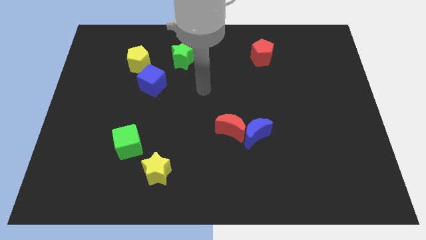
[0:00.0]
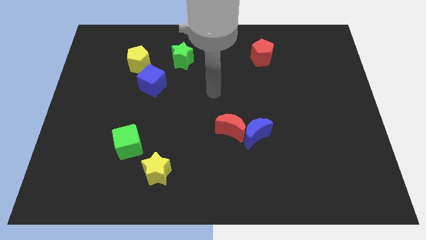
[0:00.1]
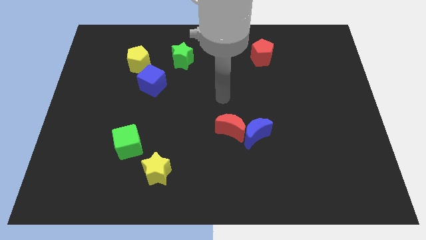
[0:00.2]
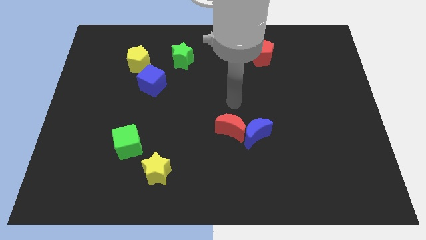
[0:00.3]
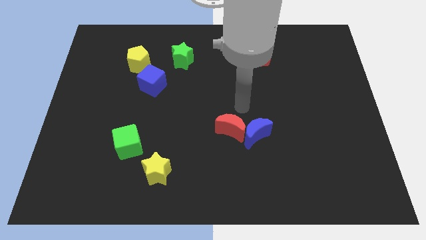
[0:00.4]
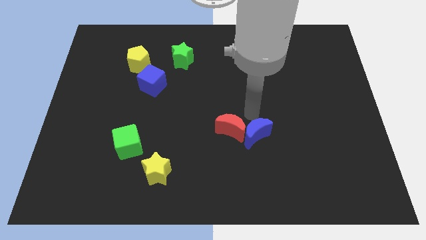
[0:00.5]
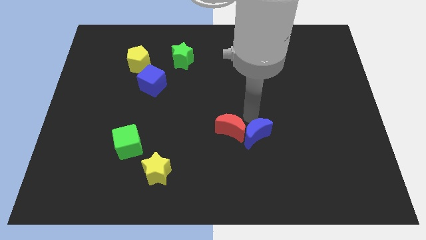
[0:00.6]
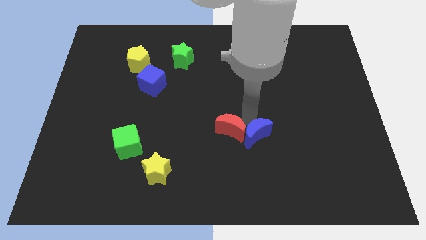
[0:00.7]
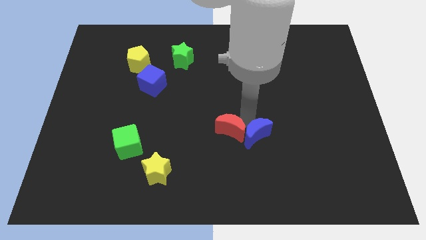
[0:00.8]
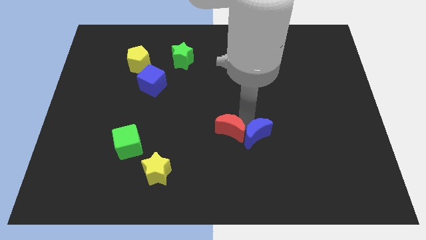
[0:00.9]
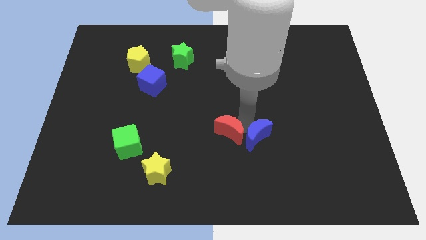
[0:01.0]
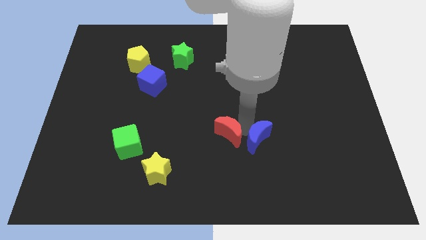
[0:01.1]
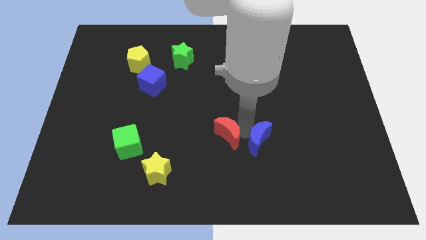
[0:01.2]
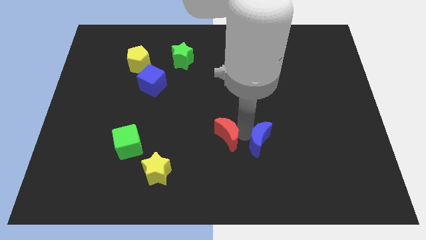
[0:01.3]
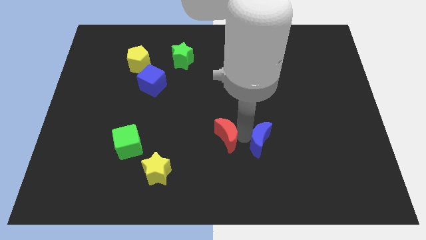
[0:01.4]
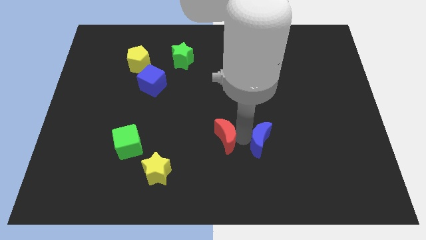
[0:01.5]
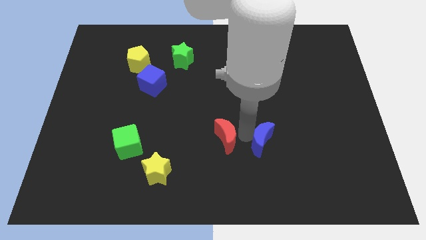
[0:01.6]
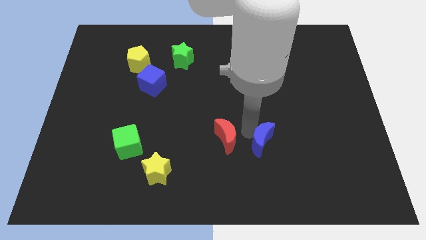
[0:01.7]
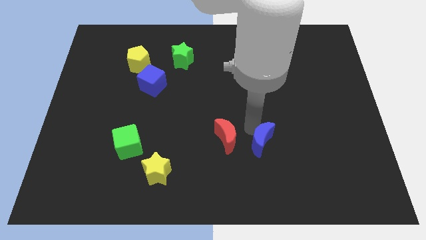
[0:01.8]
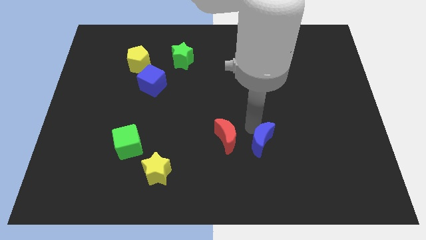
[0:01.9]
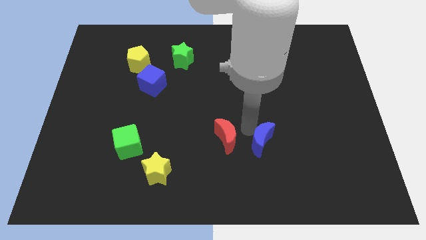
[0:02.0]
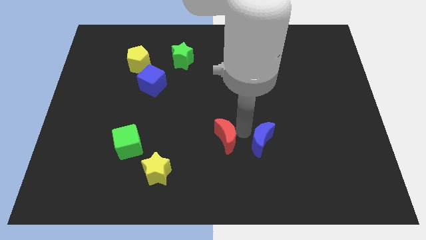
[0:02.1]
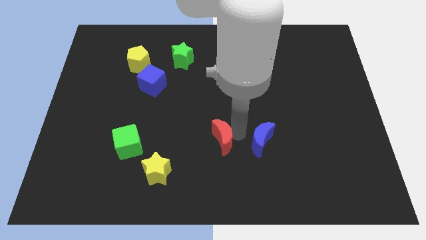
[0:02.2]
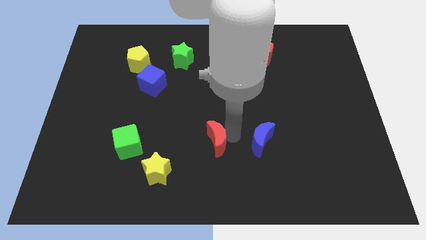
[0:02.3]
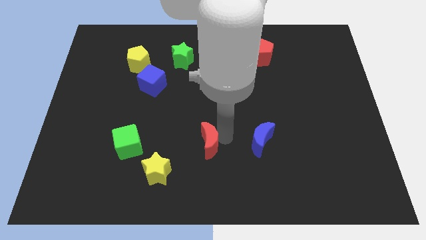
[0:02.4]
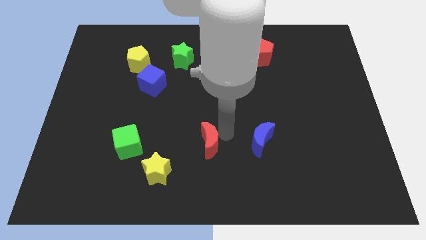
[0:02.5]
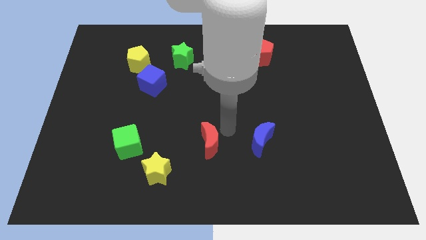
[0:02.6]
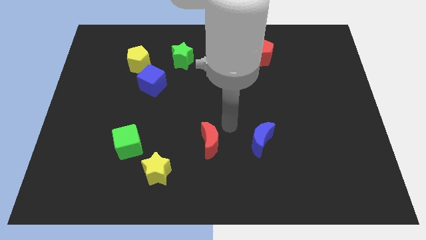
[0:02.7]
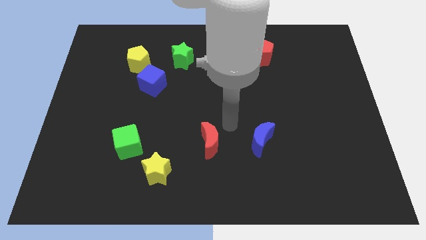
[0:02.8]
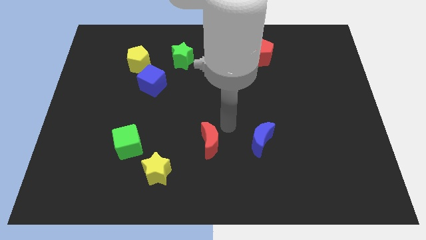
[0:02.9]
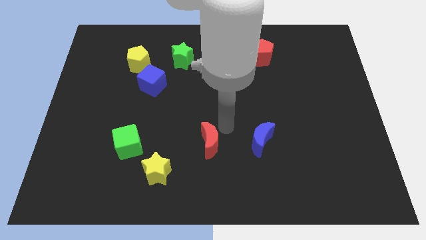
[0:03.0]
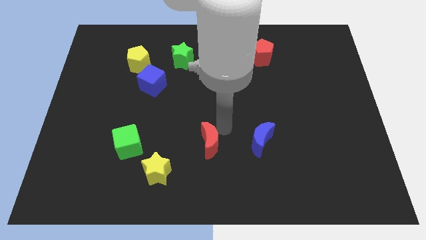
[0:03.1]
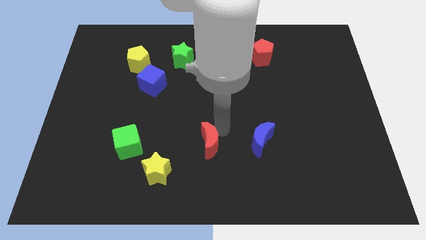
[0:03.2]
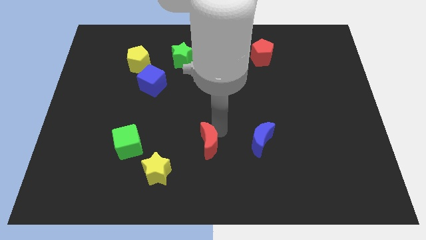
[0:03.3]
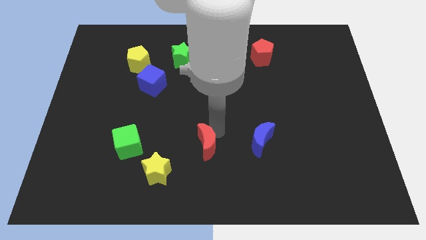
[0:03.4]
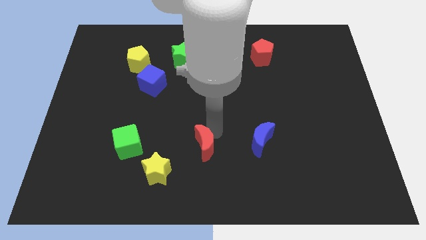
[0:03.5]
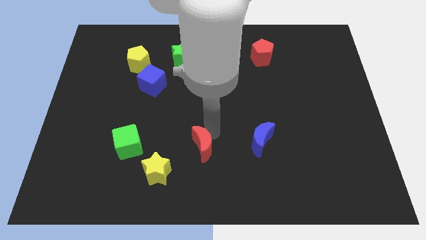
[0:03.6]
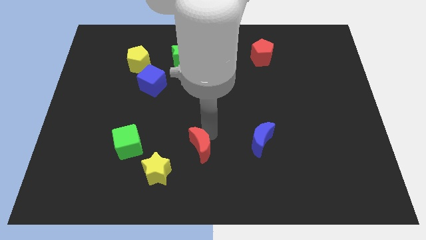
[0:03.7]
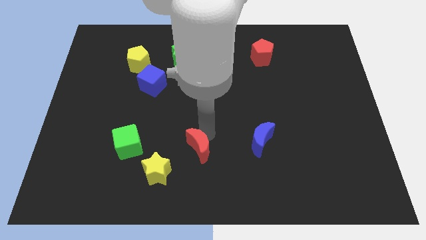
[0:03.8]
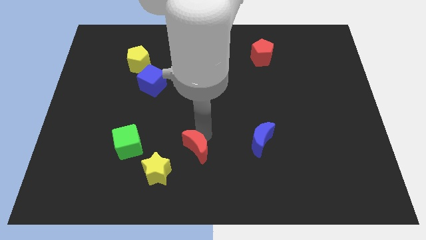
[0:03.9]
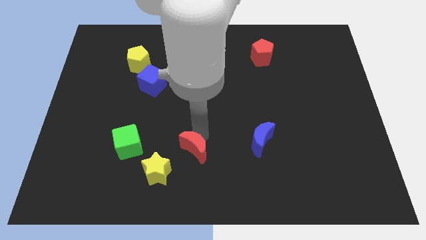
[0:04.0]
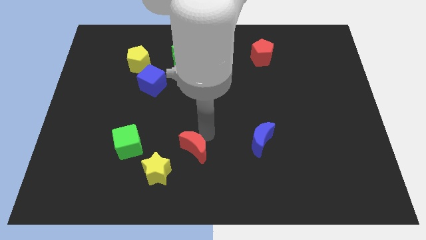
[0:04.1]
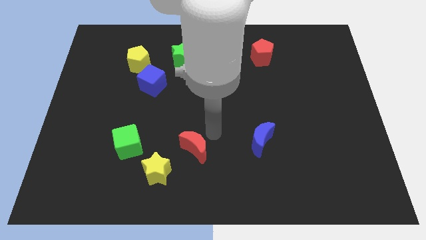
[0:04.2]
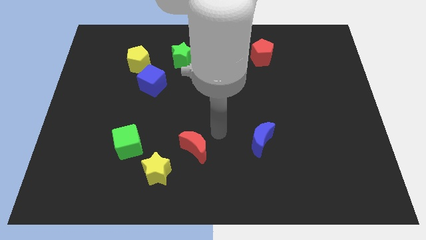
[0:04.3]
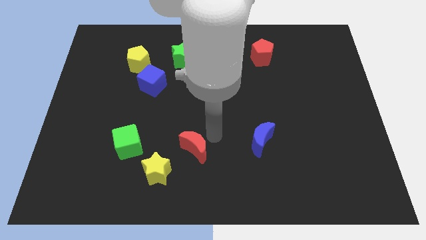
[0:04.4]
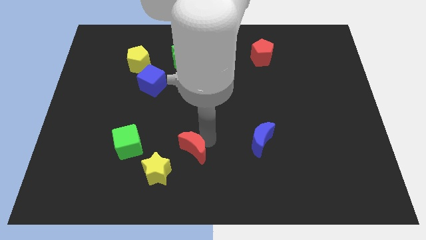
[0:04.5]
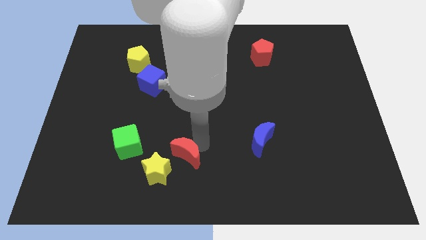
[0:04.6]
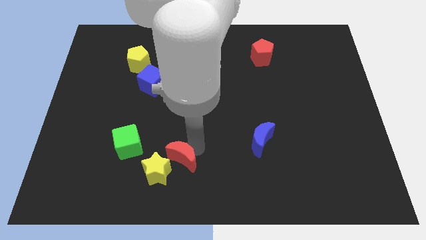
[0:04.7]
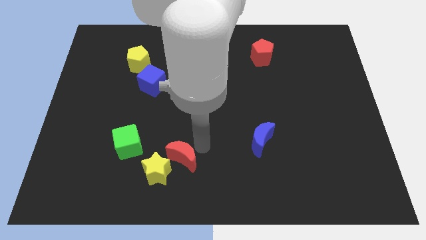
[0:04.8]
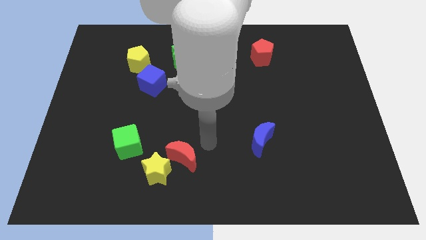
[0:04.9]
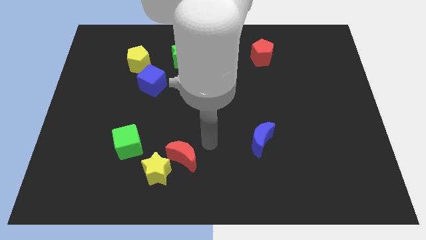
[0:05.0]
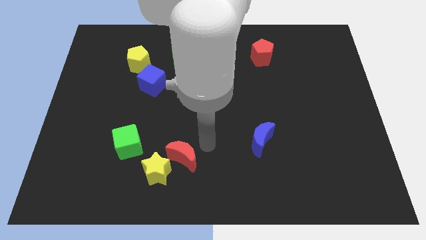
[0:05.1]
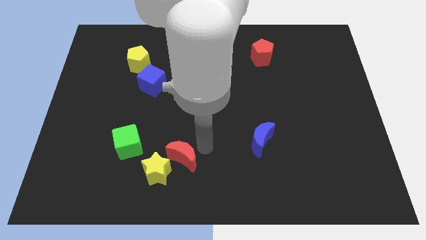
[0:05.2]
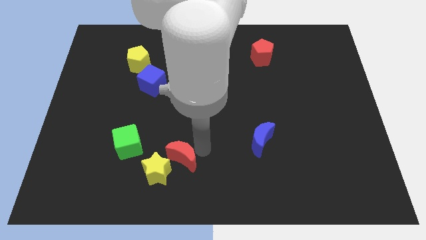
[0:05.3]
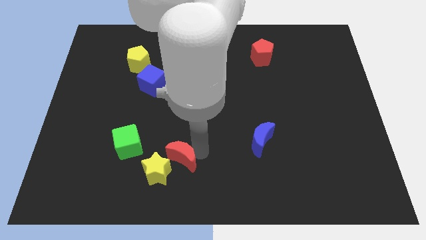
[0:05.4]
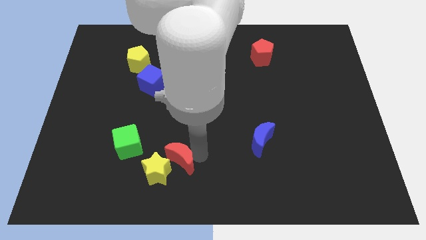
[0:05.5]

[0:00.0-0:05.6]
put the red moon to the yellow star

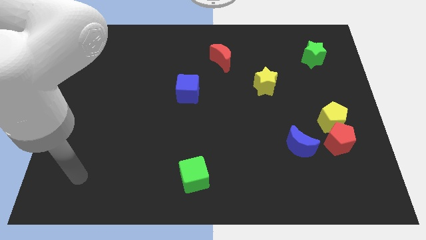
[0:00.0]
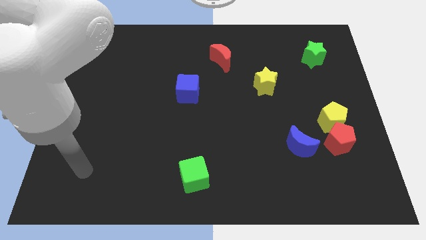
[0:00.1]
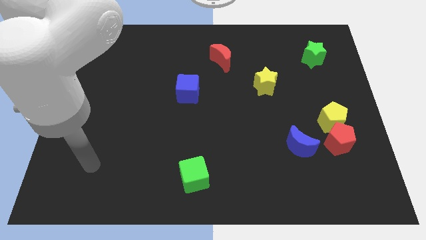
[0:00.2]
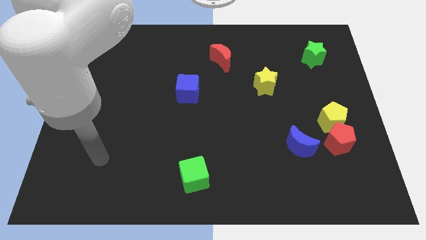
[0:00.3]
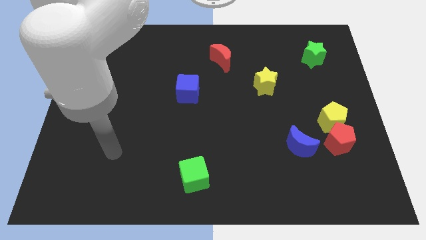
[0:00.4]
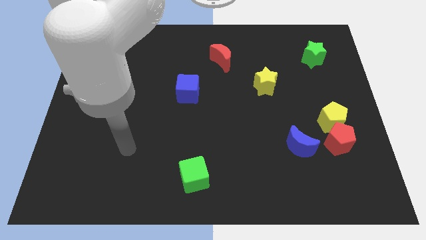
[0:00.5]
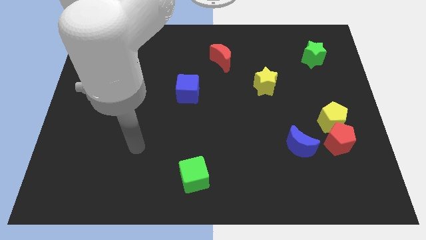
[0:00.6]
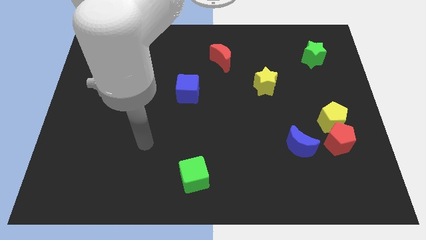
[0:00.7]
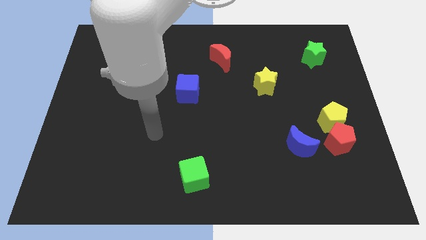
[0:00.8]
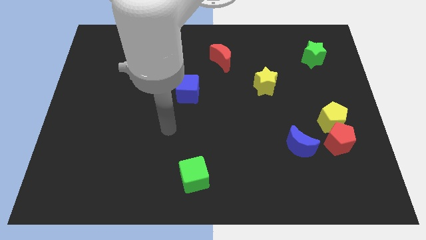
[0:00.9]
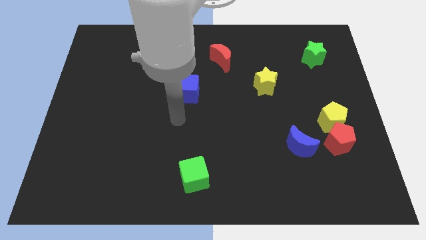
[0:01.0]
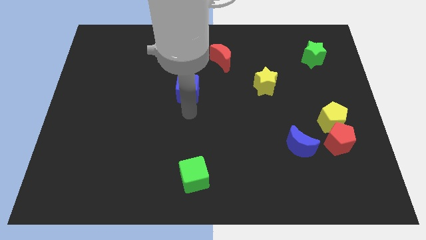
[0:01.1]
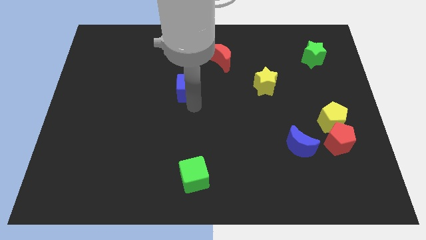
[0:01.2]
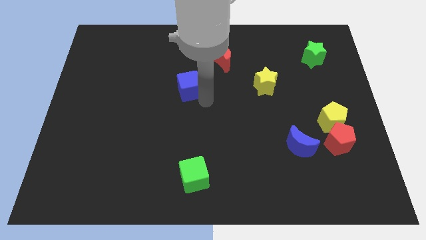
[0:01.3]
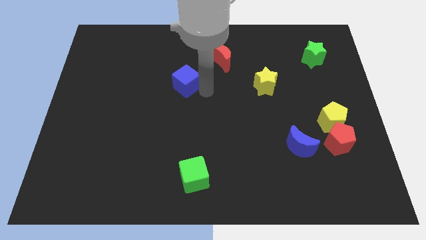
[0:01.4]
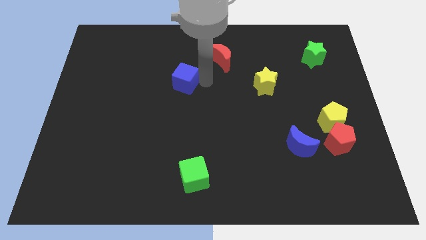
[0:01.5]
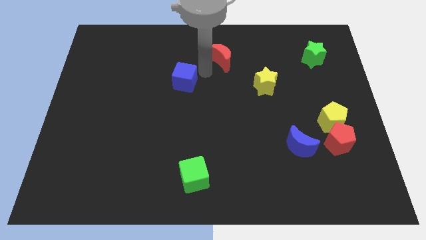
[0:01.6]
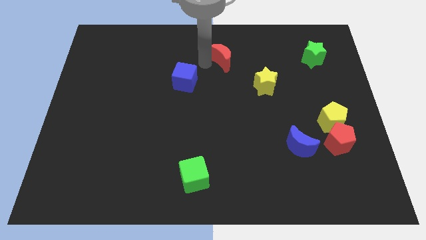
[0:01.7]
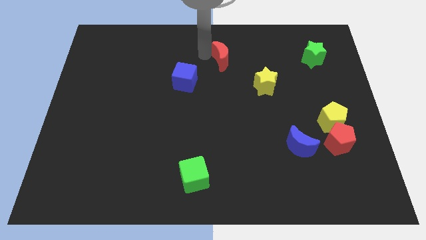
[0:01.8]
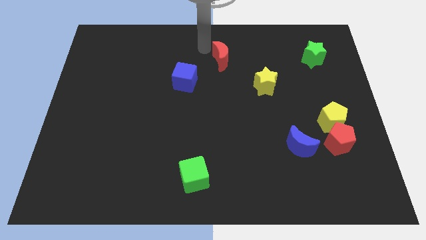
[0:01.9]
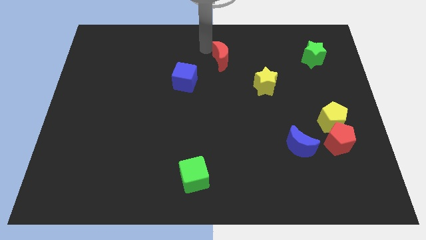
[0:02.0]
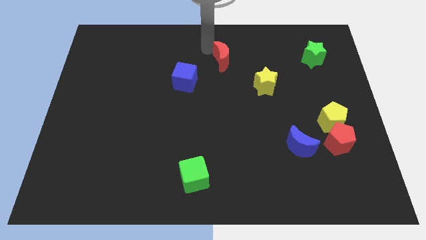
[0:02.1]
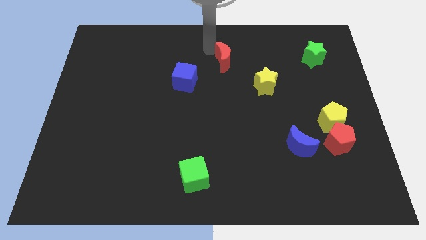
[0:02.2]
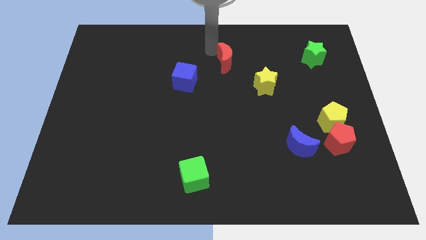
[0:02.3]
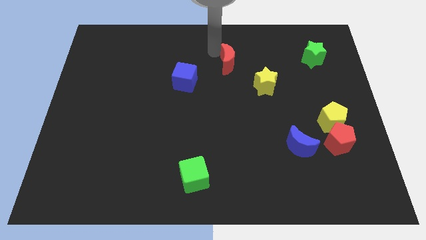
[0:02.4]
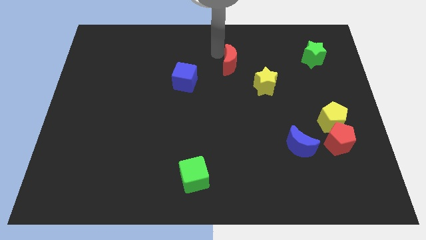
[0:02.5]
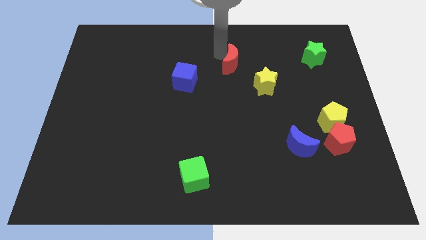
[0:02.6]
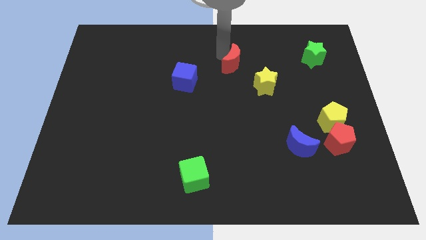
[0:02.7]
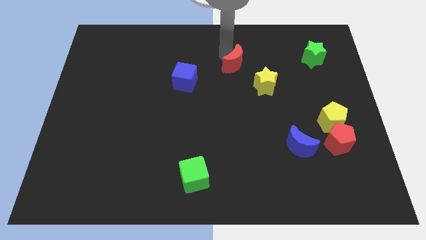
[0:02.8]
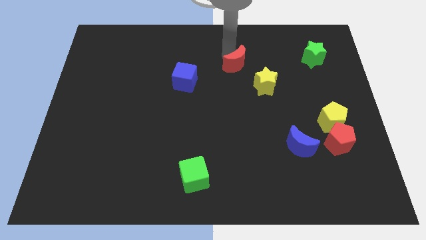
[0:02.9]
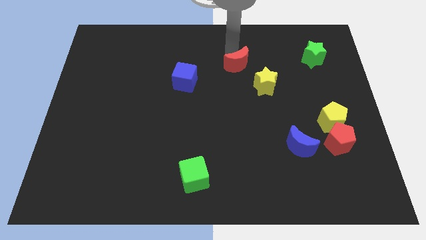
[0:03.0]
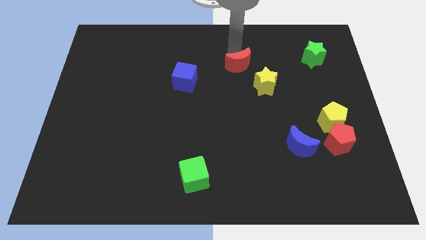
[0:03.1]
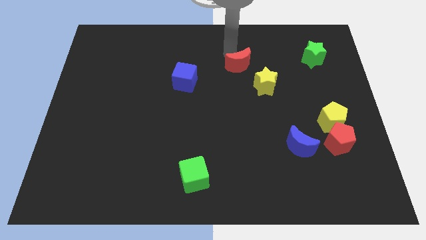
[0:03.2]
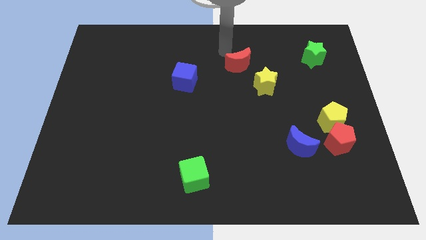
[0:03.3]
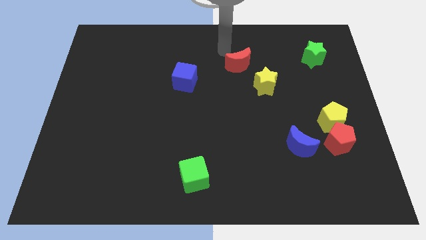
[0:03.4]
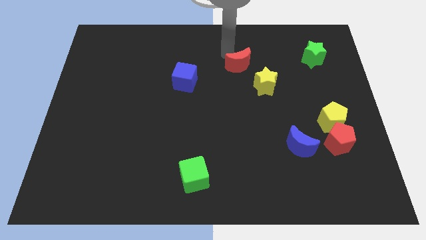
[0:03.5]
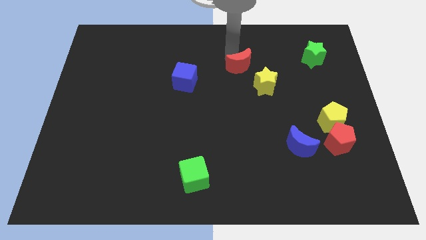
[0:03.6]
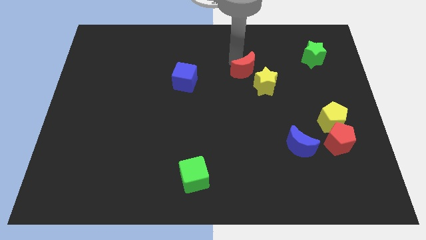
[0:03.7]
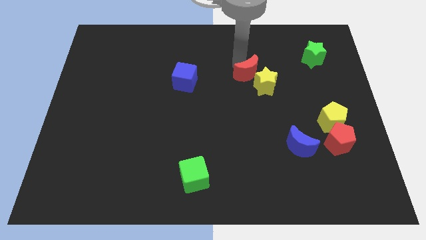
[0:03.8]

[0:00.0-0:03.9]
put the red moon next to the yellow star
